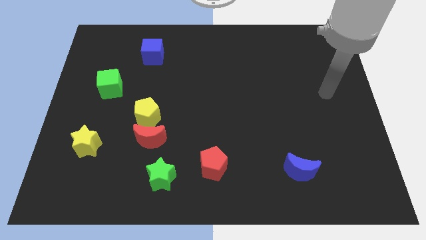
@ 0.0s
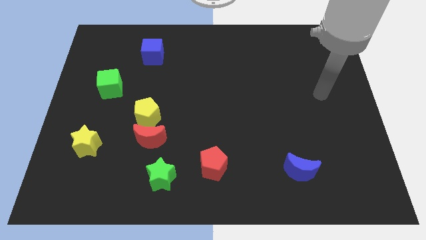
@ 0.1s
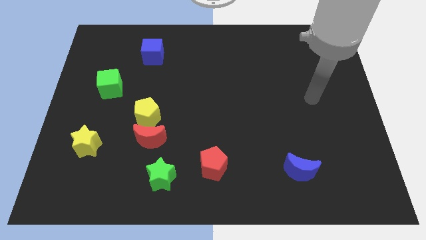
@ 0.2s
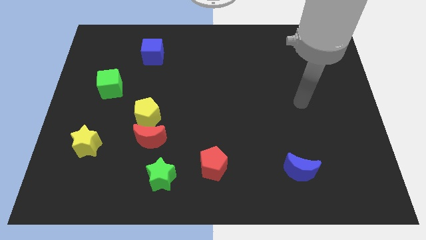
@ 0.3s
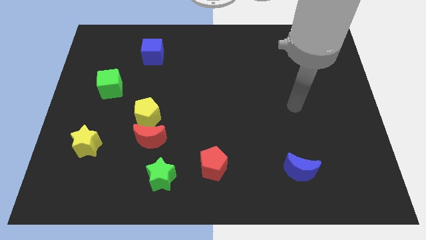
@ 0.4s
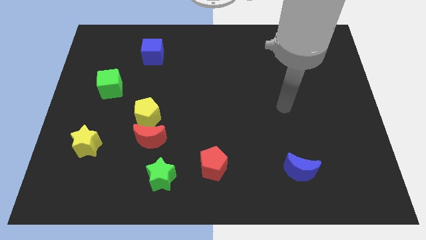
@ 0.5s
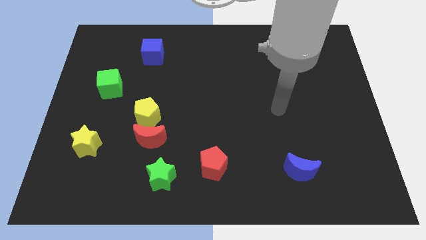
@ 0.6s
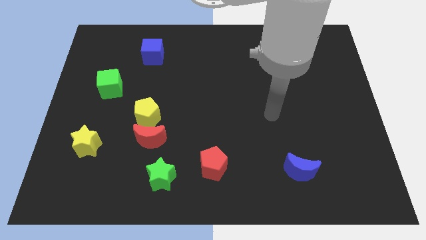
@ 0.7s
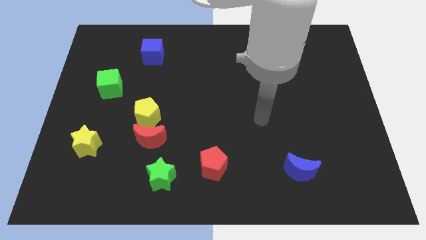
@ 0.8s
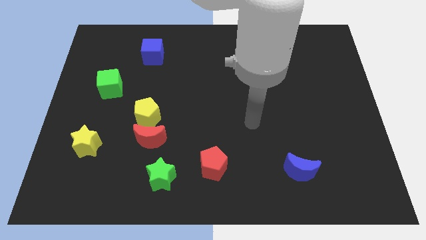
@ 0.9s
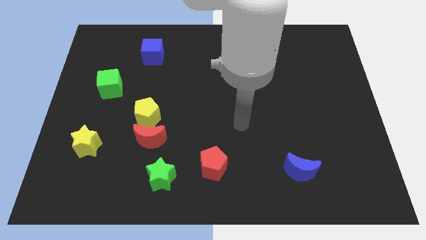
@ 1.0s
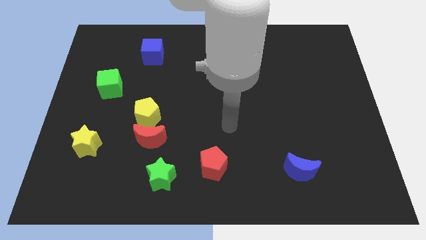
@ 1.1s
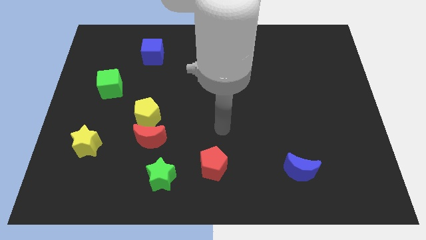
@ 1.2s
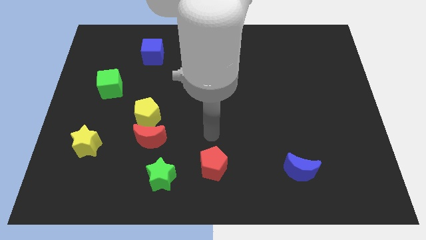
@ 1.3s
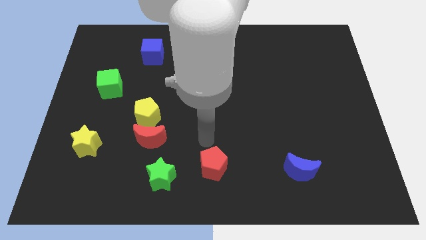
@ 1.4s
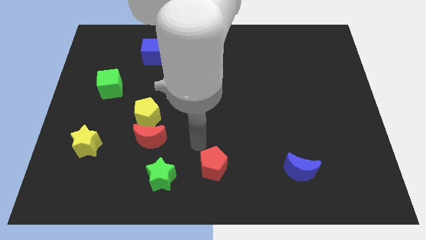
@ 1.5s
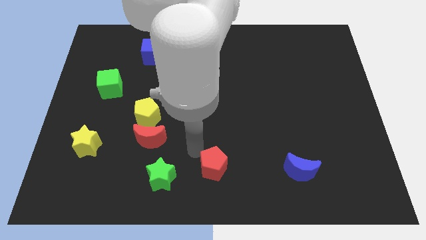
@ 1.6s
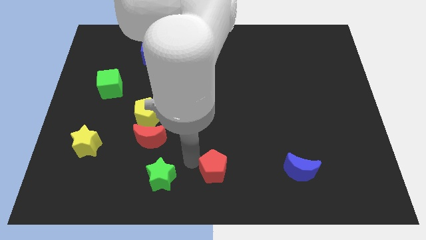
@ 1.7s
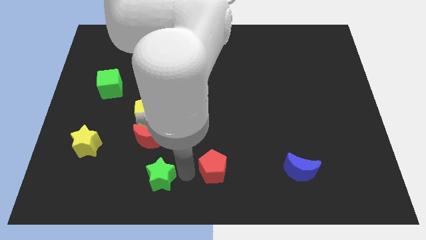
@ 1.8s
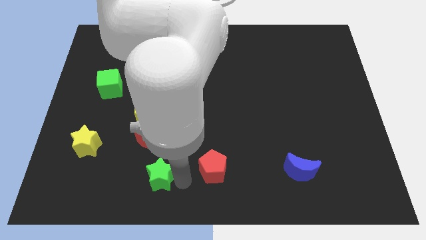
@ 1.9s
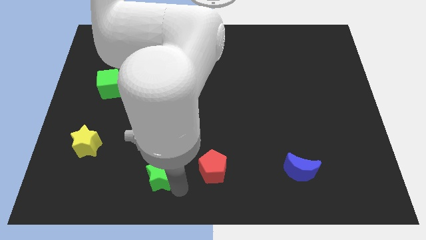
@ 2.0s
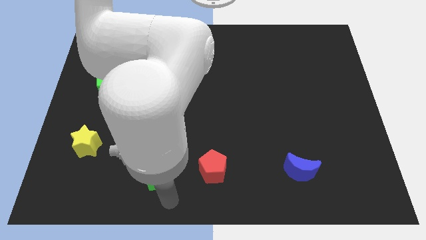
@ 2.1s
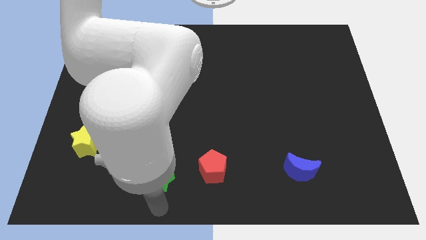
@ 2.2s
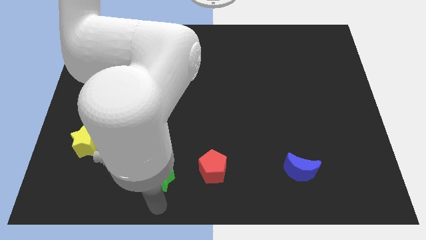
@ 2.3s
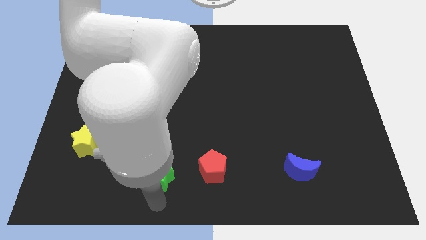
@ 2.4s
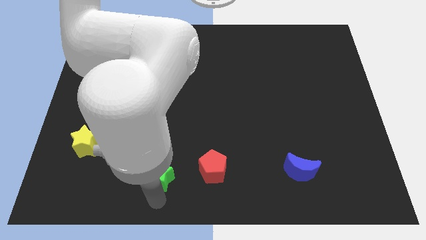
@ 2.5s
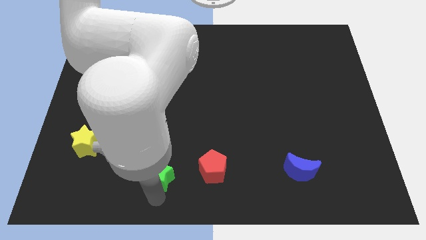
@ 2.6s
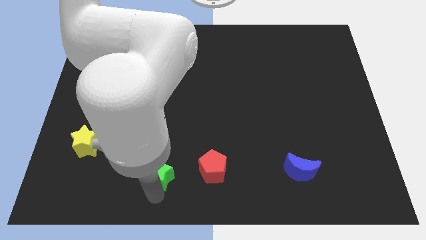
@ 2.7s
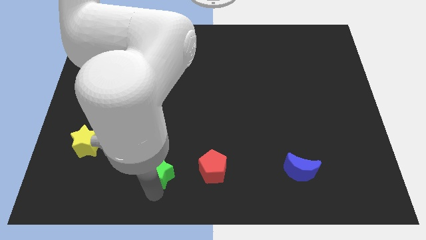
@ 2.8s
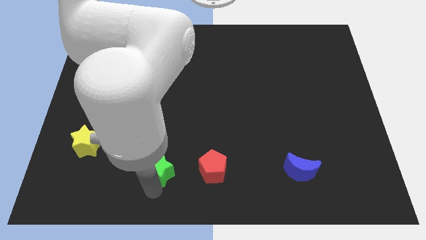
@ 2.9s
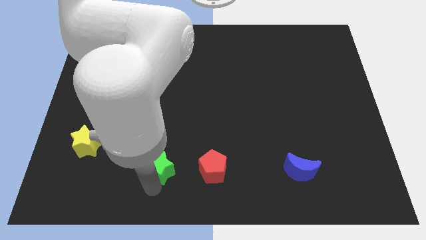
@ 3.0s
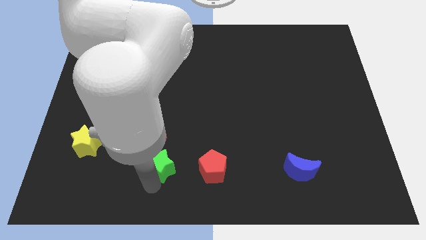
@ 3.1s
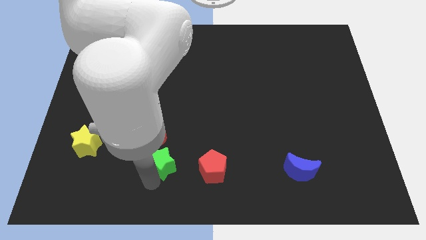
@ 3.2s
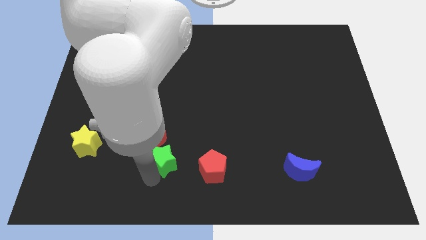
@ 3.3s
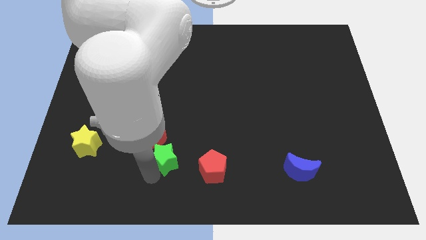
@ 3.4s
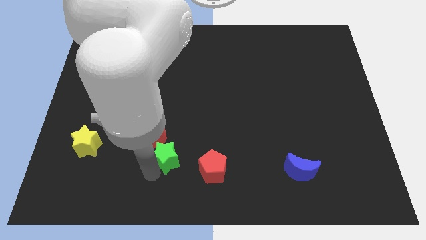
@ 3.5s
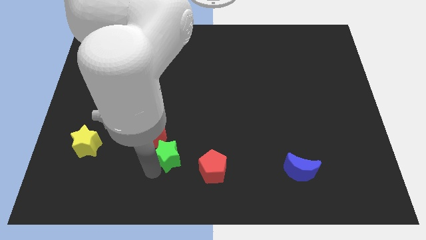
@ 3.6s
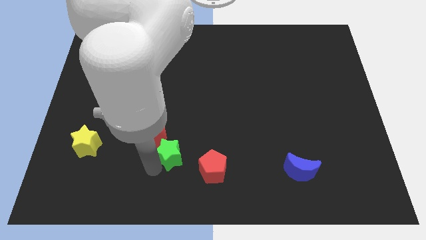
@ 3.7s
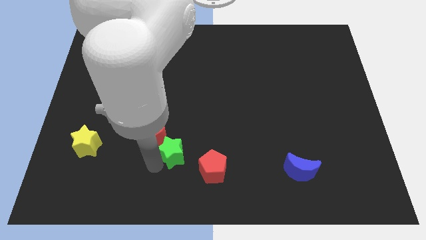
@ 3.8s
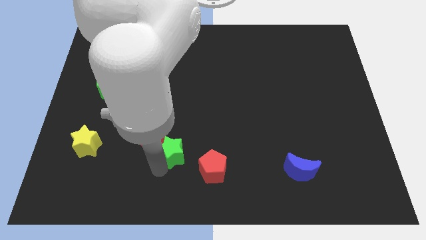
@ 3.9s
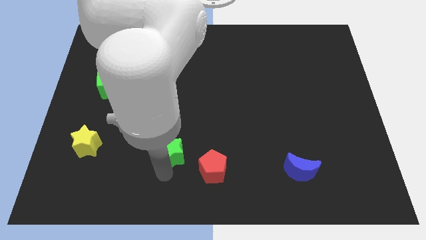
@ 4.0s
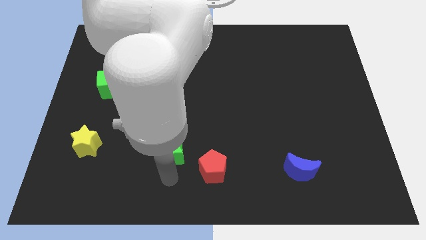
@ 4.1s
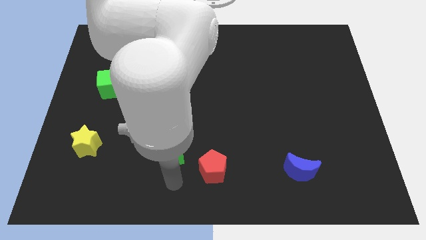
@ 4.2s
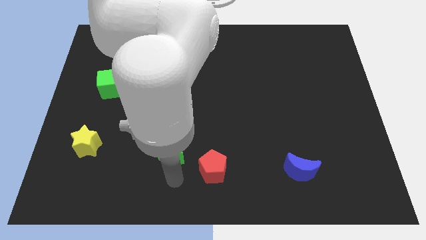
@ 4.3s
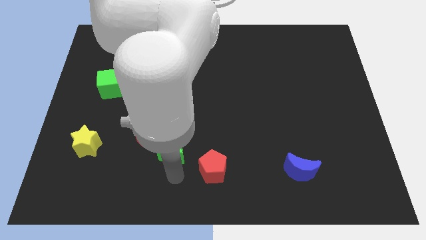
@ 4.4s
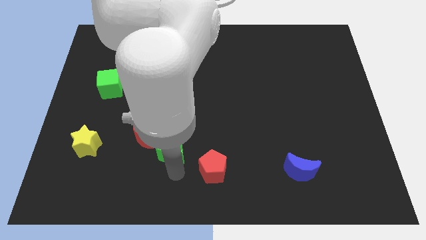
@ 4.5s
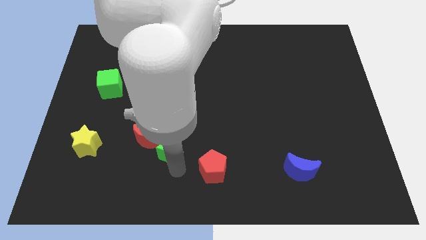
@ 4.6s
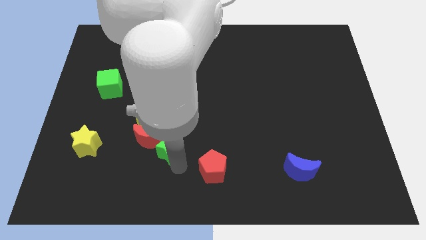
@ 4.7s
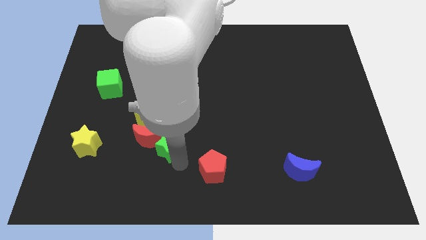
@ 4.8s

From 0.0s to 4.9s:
slightly slide the green star upwards

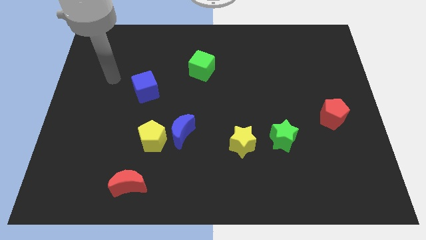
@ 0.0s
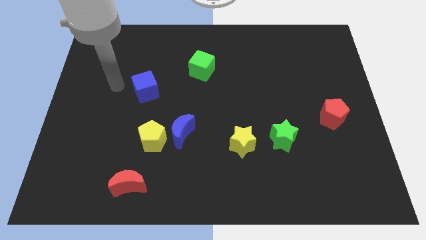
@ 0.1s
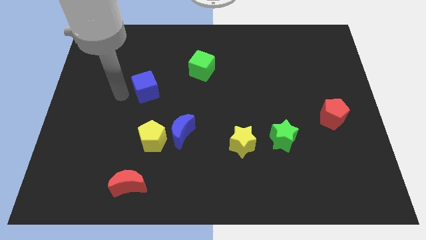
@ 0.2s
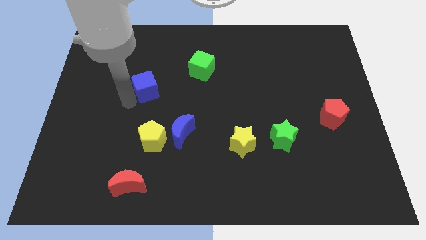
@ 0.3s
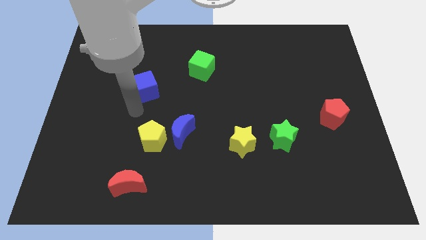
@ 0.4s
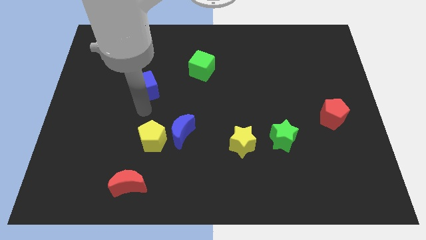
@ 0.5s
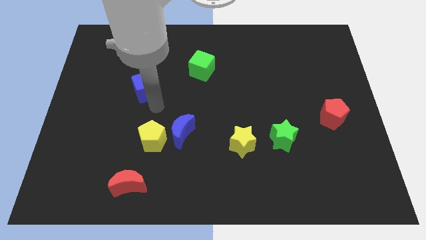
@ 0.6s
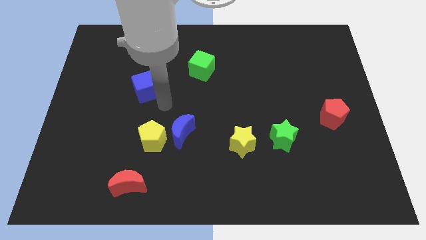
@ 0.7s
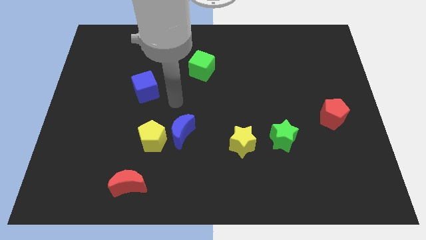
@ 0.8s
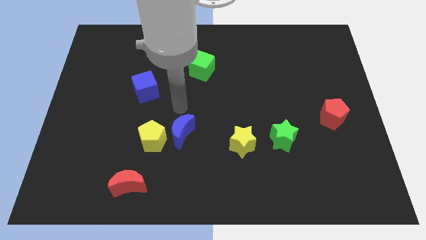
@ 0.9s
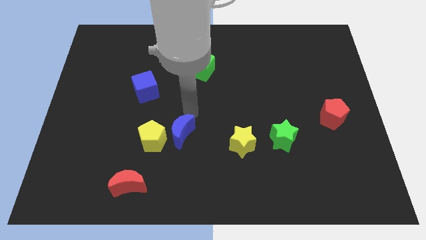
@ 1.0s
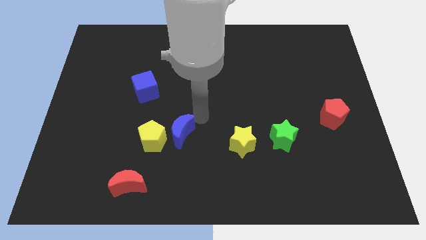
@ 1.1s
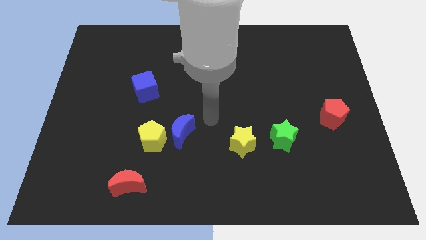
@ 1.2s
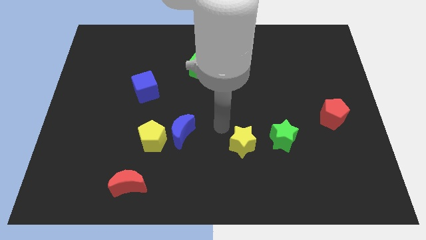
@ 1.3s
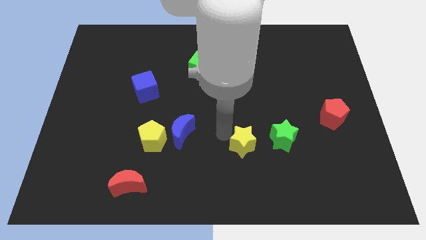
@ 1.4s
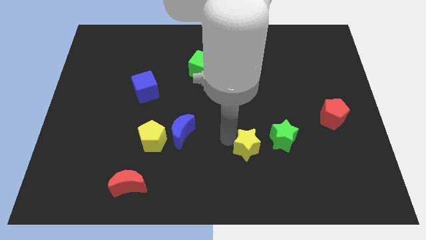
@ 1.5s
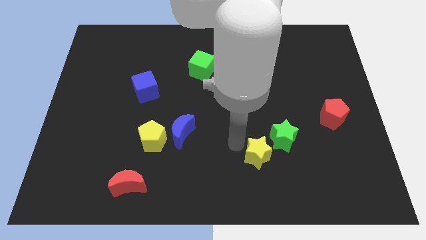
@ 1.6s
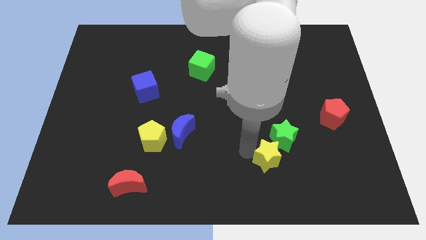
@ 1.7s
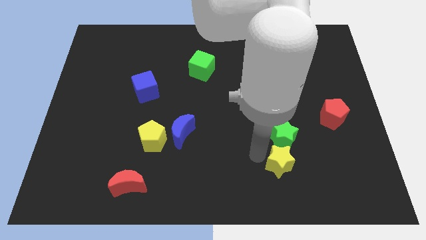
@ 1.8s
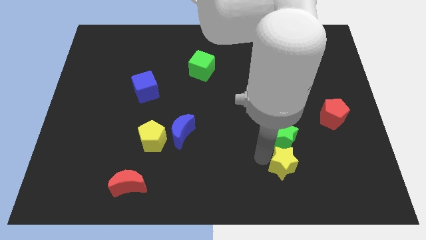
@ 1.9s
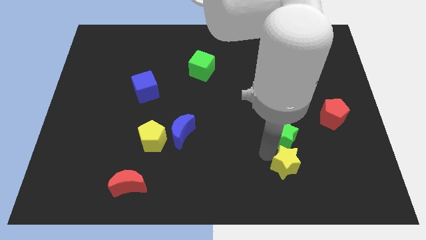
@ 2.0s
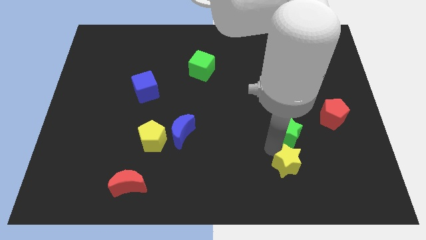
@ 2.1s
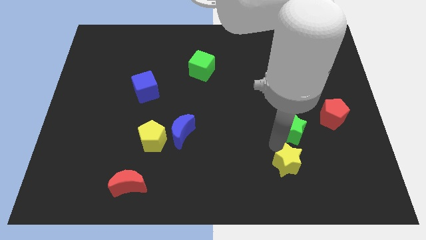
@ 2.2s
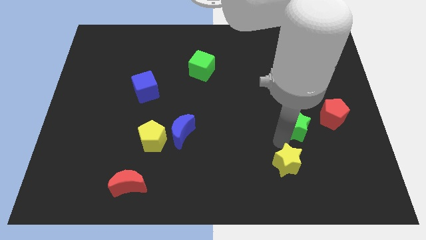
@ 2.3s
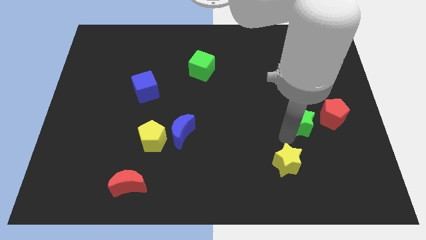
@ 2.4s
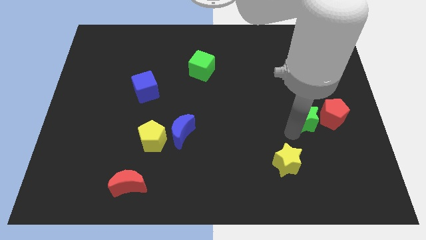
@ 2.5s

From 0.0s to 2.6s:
slide the green star a little diagonally upwards and right
